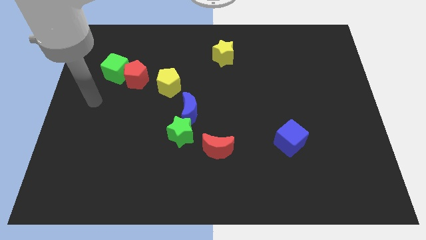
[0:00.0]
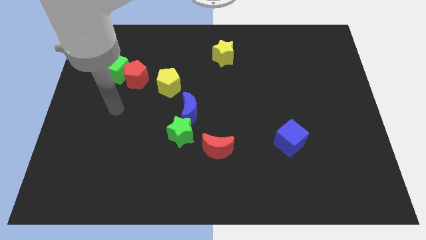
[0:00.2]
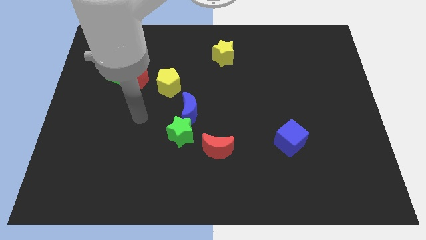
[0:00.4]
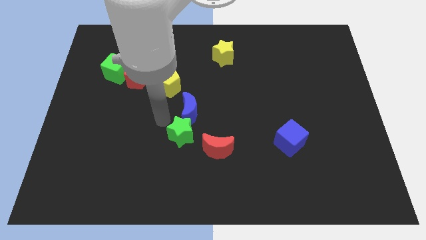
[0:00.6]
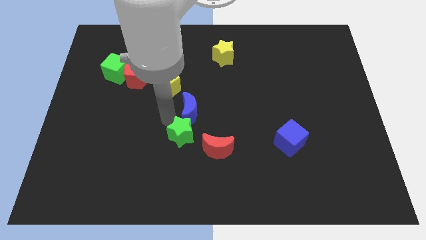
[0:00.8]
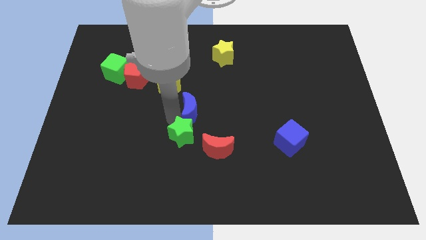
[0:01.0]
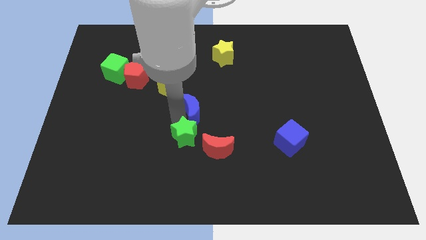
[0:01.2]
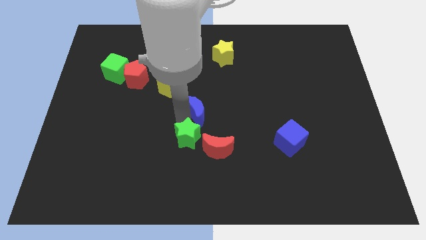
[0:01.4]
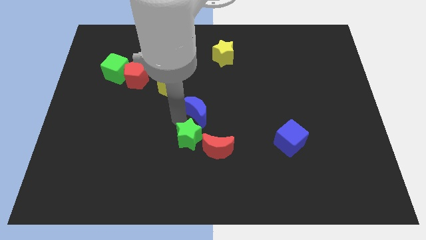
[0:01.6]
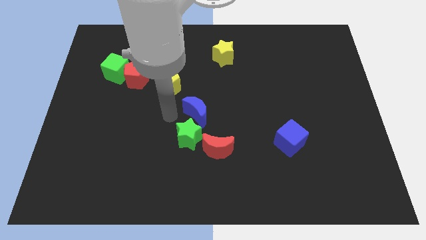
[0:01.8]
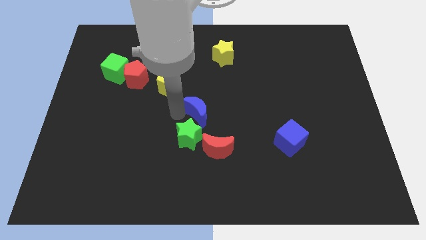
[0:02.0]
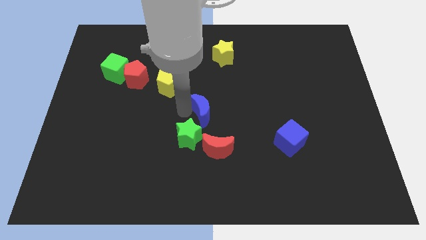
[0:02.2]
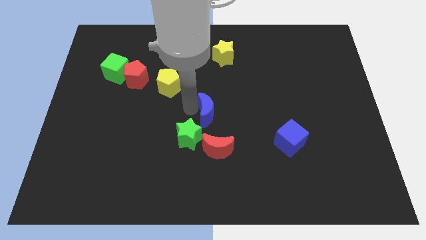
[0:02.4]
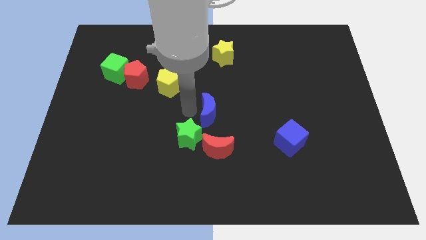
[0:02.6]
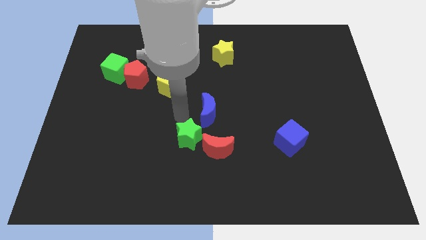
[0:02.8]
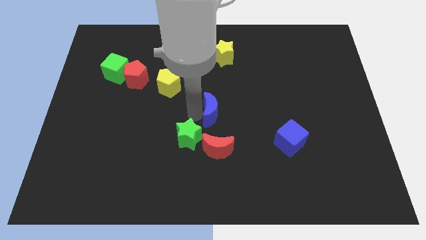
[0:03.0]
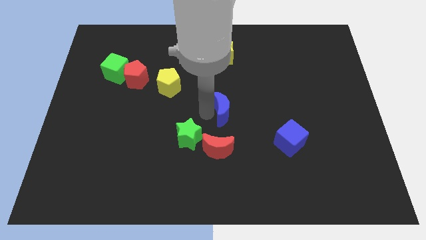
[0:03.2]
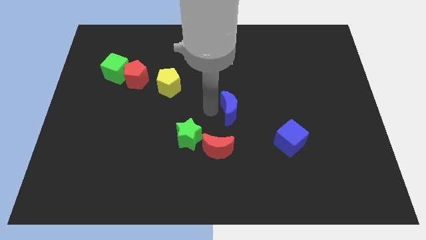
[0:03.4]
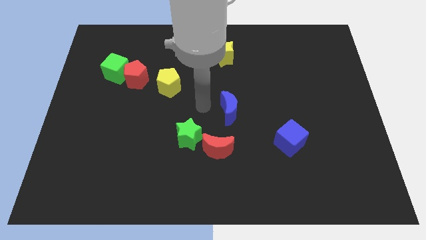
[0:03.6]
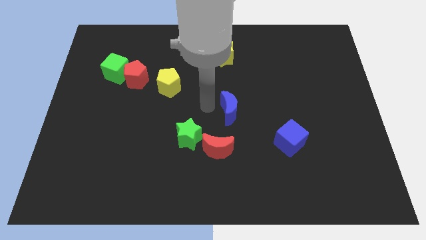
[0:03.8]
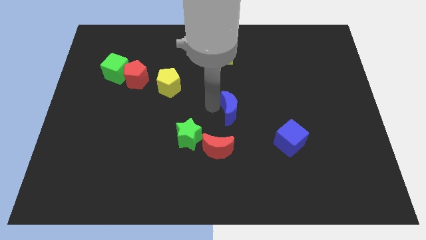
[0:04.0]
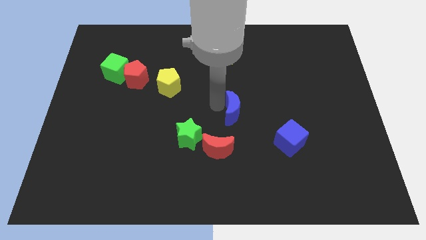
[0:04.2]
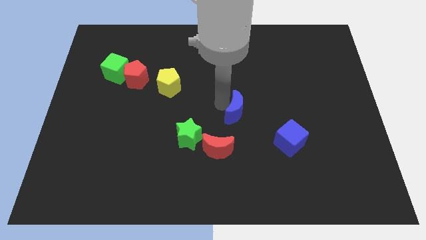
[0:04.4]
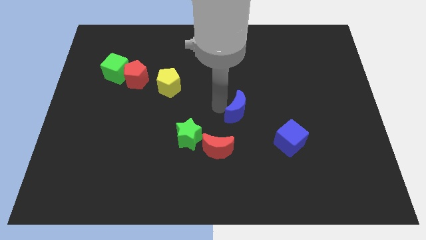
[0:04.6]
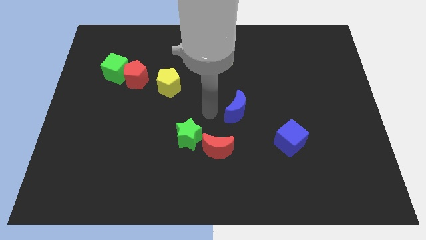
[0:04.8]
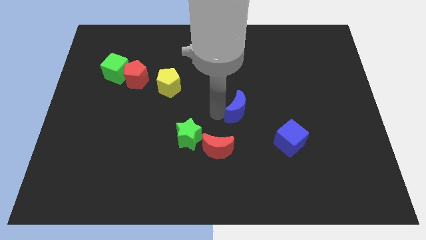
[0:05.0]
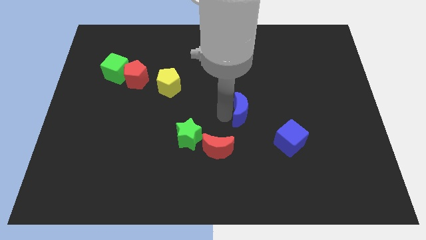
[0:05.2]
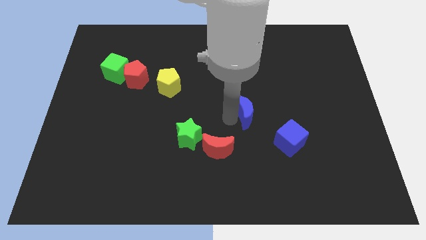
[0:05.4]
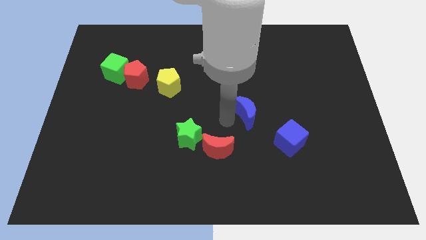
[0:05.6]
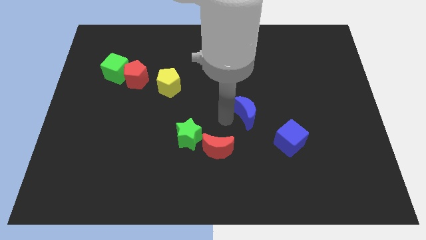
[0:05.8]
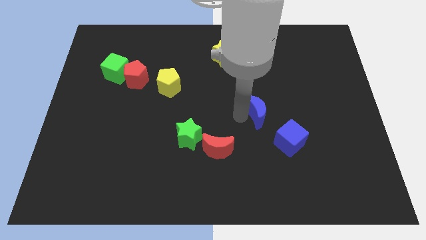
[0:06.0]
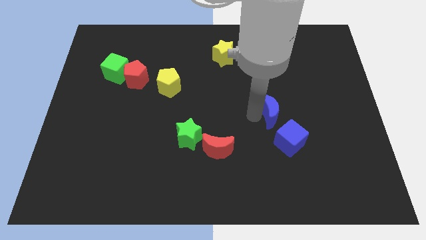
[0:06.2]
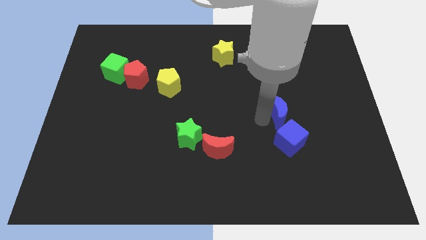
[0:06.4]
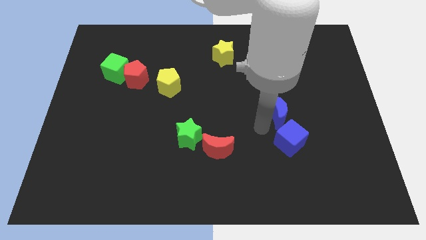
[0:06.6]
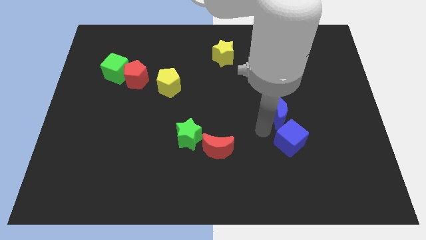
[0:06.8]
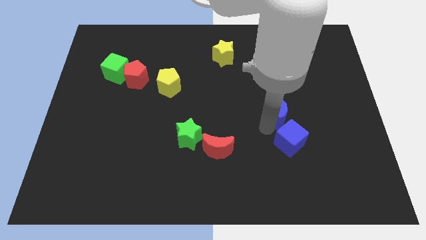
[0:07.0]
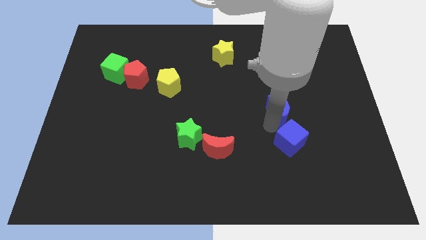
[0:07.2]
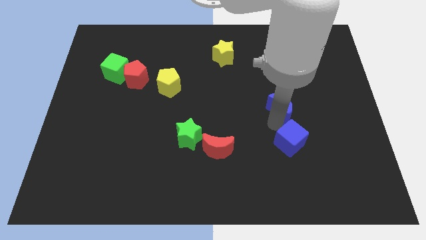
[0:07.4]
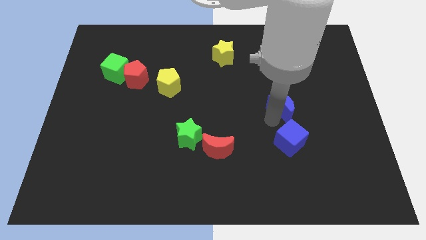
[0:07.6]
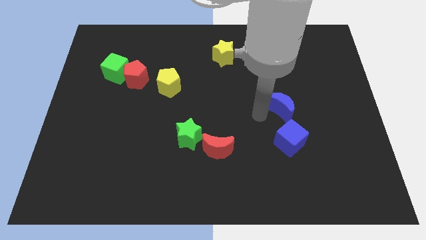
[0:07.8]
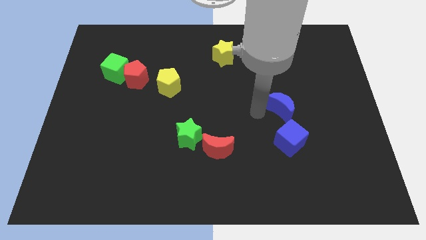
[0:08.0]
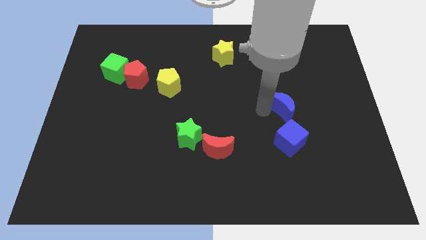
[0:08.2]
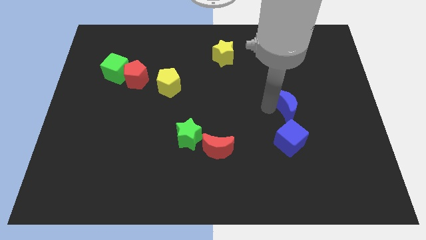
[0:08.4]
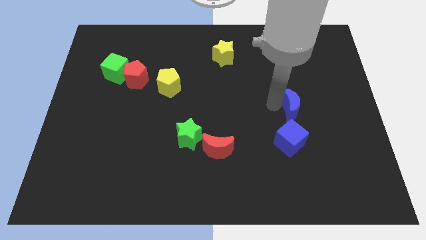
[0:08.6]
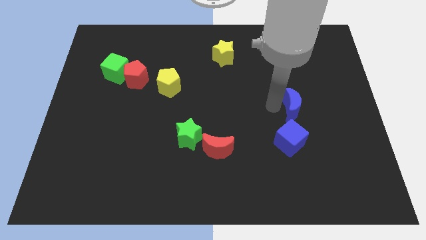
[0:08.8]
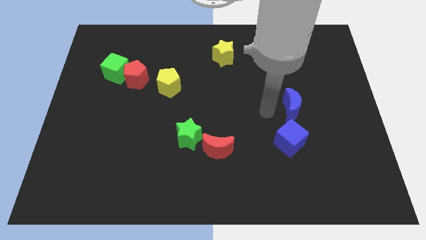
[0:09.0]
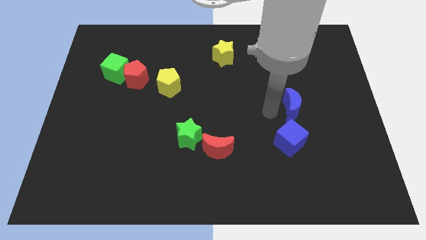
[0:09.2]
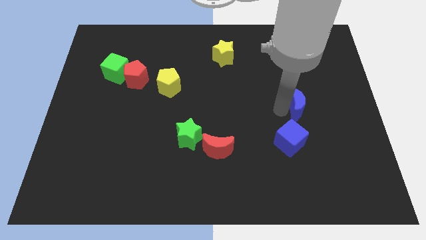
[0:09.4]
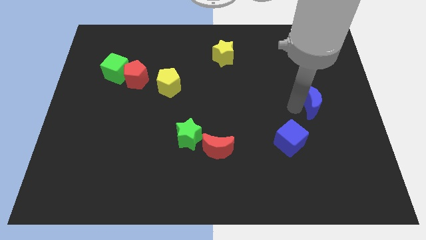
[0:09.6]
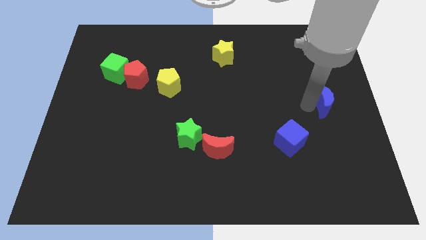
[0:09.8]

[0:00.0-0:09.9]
move the blue moon to the center right

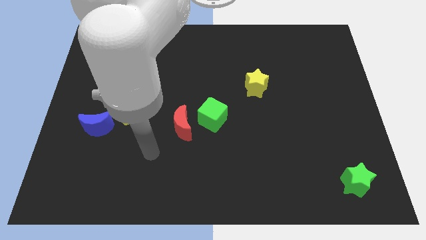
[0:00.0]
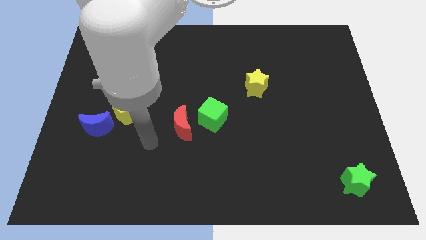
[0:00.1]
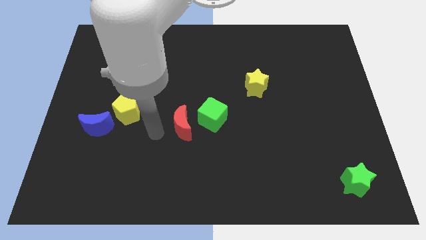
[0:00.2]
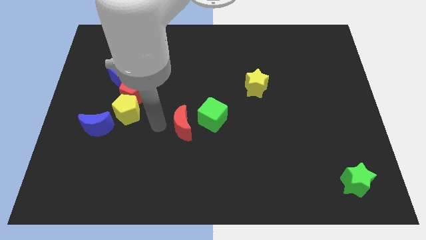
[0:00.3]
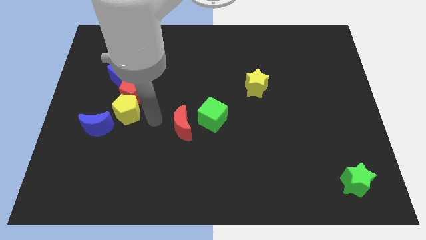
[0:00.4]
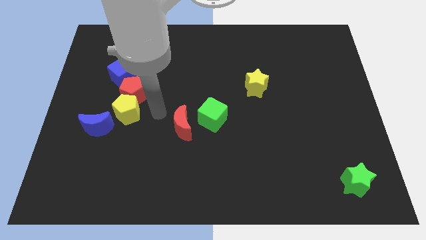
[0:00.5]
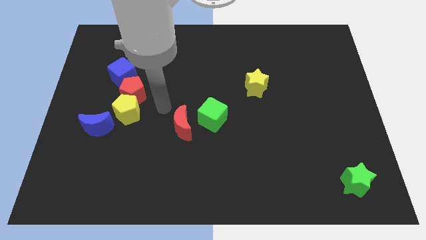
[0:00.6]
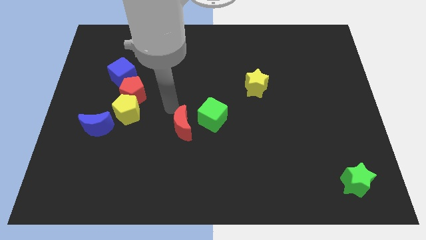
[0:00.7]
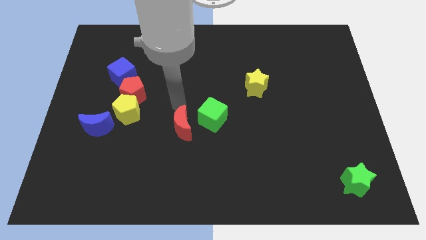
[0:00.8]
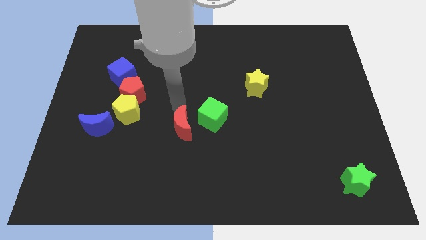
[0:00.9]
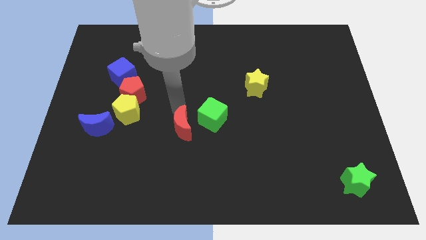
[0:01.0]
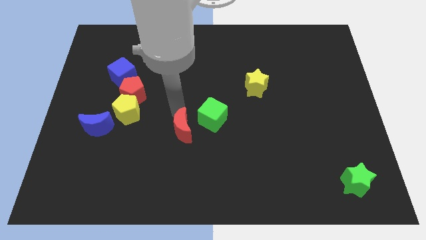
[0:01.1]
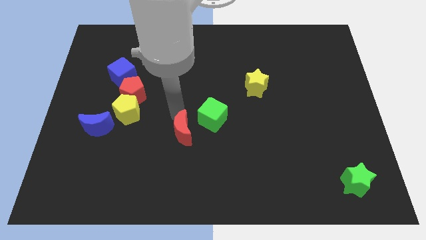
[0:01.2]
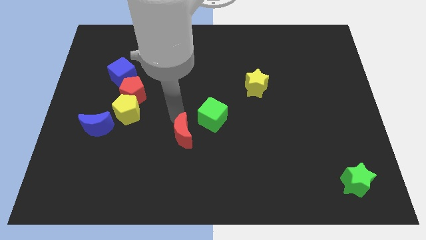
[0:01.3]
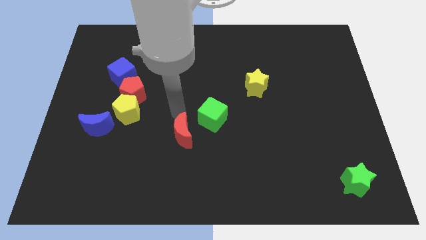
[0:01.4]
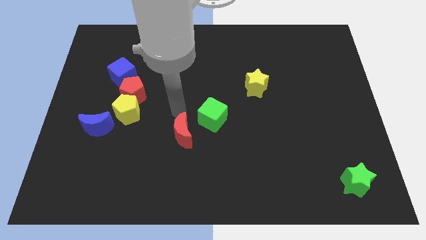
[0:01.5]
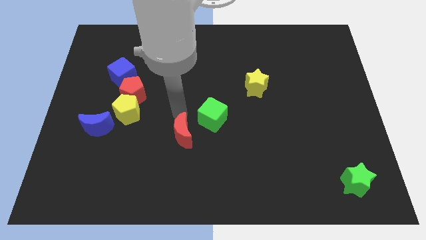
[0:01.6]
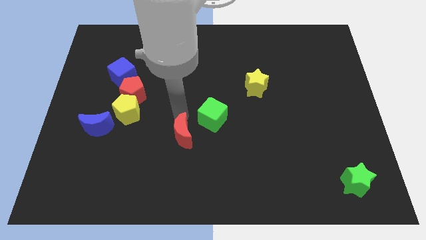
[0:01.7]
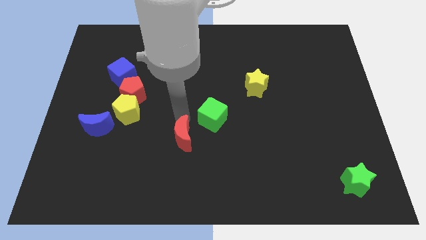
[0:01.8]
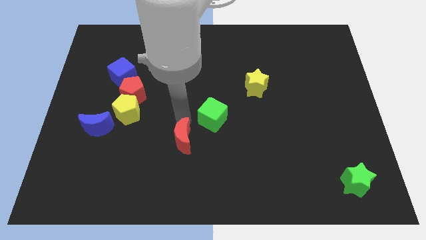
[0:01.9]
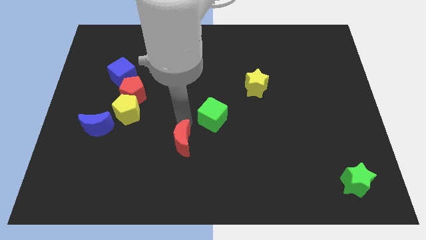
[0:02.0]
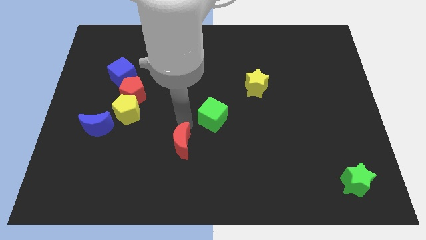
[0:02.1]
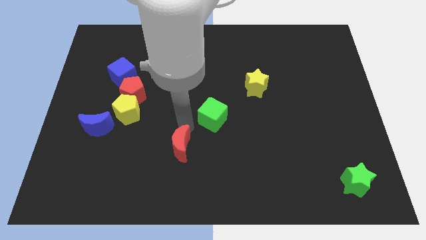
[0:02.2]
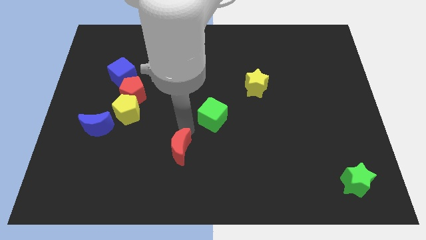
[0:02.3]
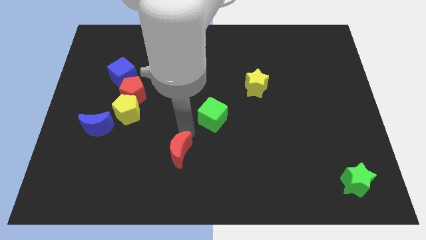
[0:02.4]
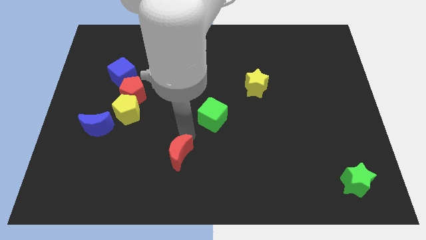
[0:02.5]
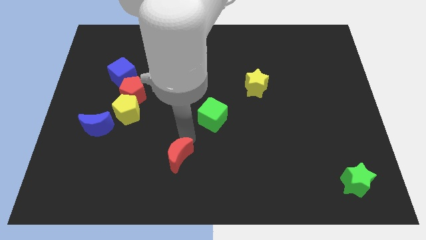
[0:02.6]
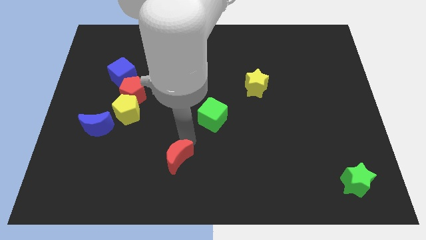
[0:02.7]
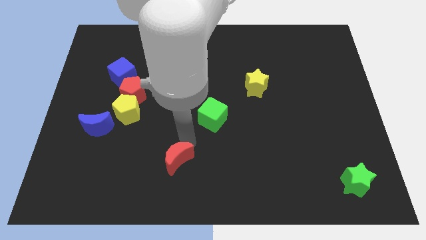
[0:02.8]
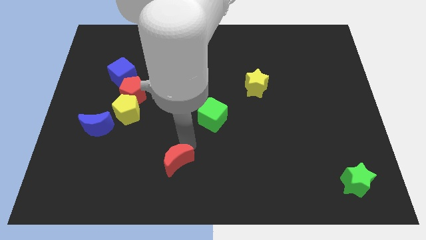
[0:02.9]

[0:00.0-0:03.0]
put the red moon to the bottom side
